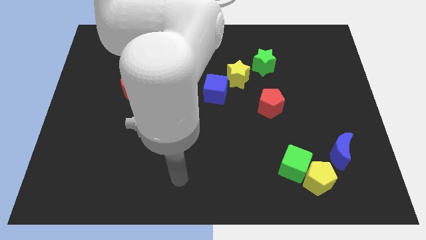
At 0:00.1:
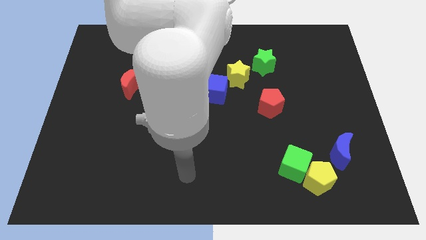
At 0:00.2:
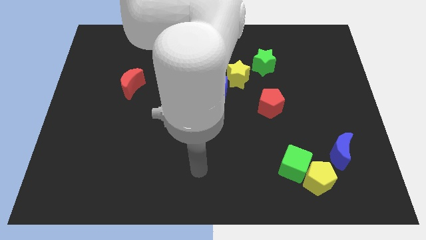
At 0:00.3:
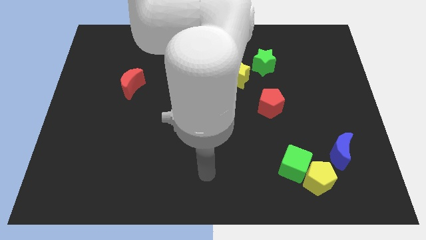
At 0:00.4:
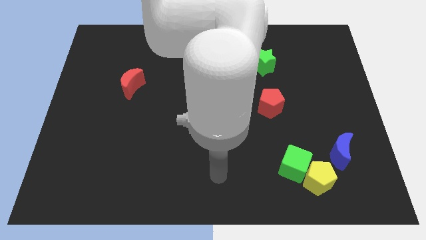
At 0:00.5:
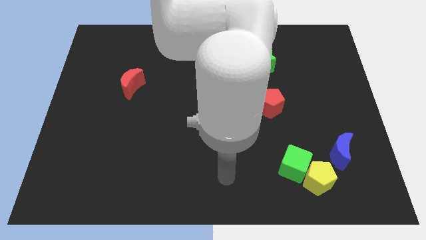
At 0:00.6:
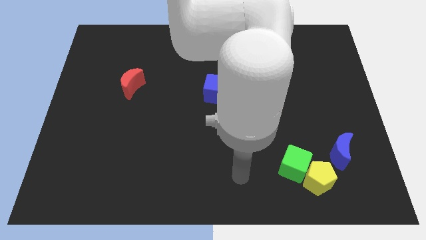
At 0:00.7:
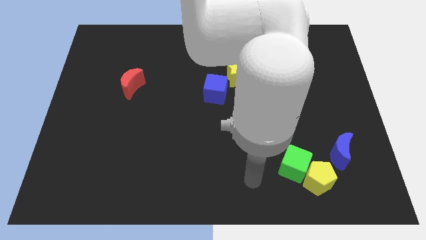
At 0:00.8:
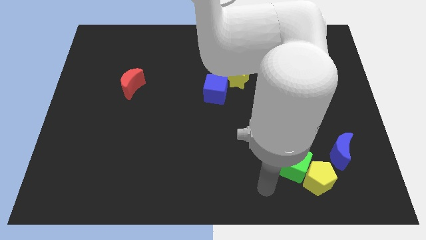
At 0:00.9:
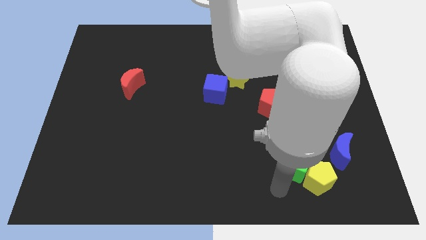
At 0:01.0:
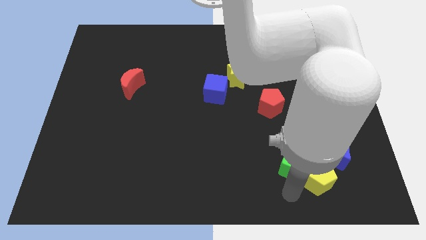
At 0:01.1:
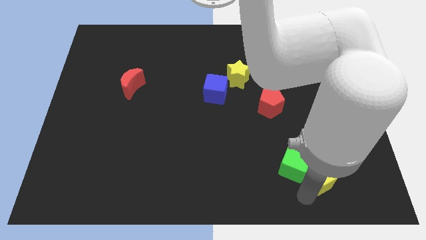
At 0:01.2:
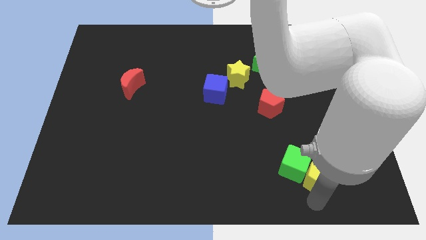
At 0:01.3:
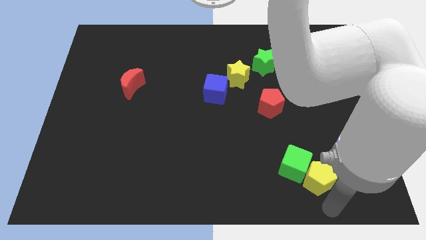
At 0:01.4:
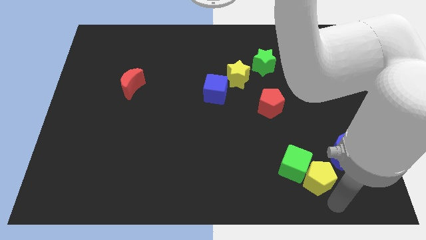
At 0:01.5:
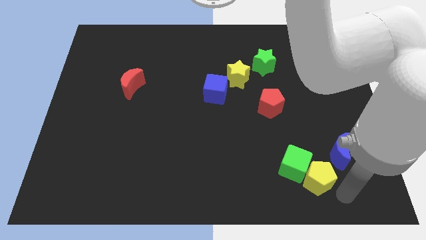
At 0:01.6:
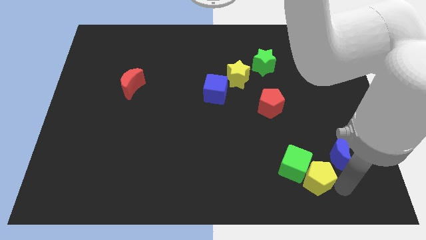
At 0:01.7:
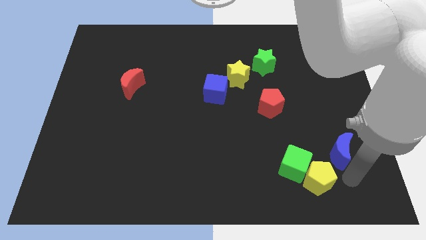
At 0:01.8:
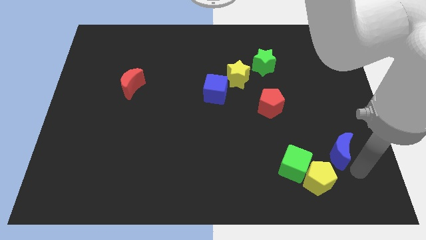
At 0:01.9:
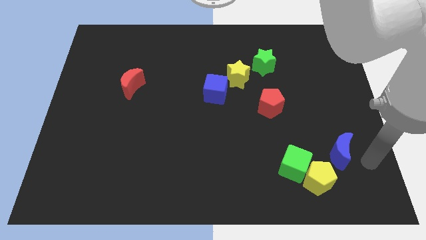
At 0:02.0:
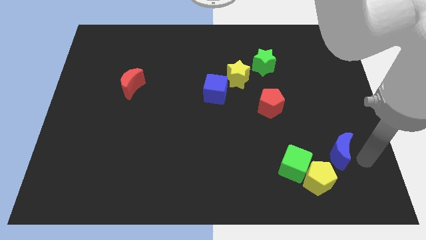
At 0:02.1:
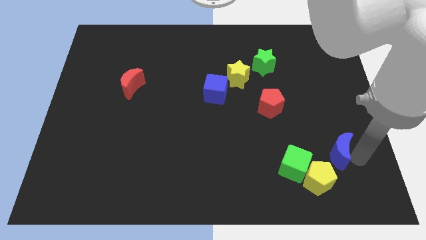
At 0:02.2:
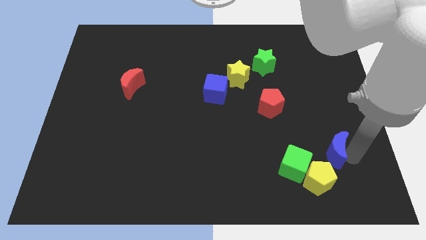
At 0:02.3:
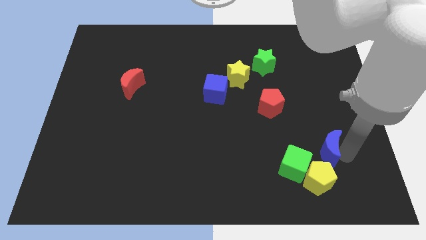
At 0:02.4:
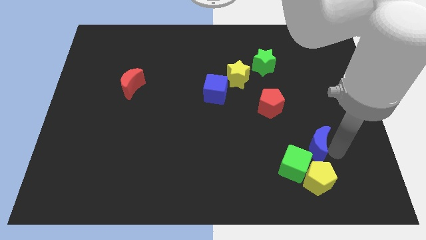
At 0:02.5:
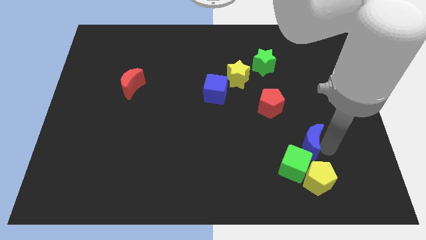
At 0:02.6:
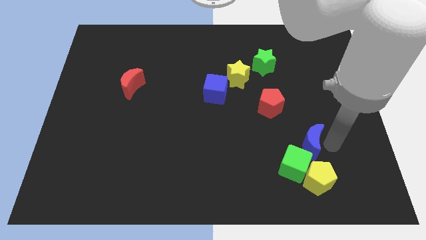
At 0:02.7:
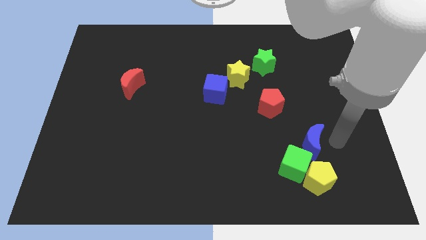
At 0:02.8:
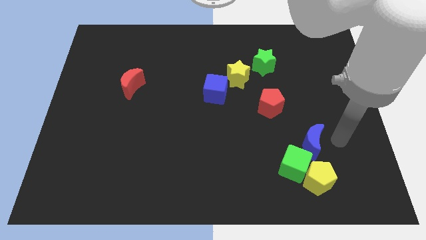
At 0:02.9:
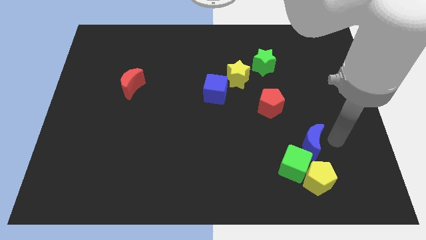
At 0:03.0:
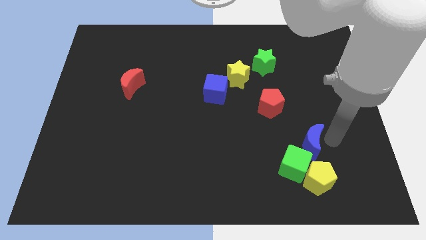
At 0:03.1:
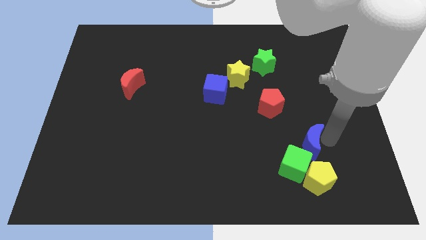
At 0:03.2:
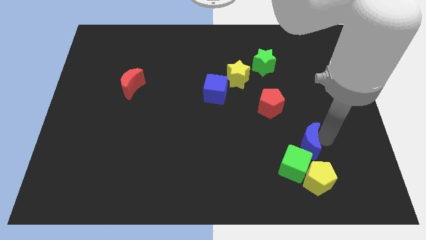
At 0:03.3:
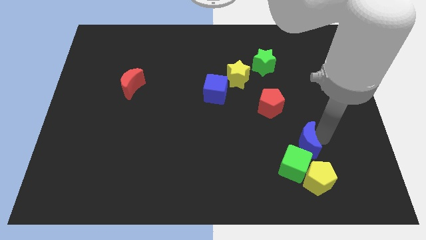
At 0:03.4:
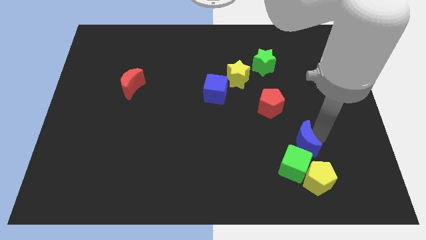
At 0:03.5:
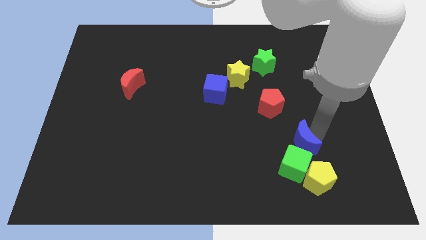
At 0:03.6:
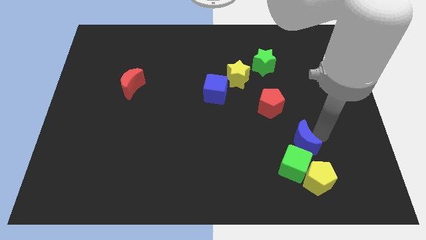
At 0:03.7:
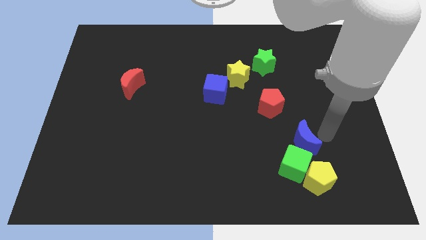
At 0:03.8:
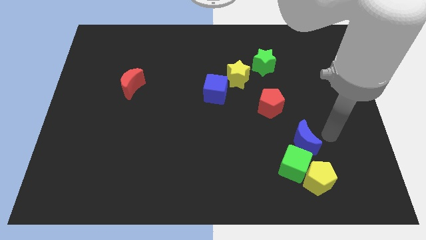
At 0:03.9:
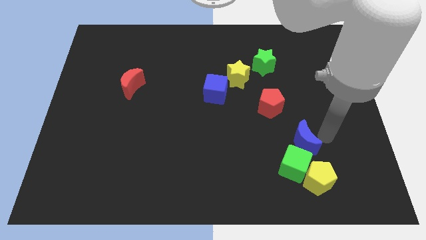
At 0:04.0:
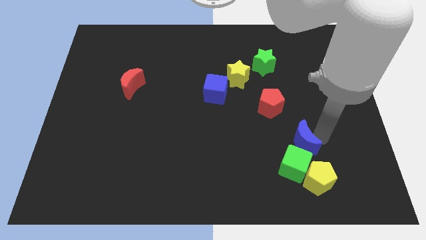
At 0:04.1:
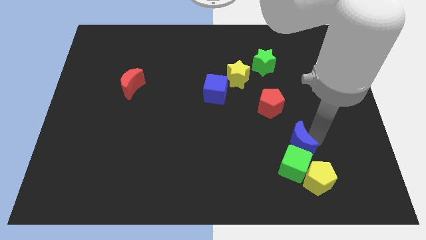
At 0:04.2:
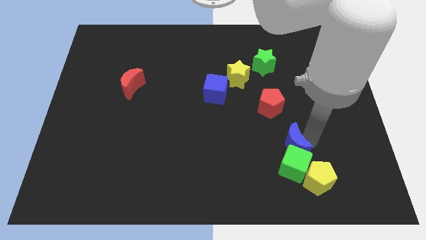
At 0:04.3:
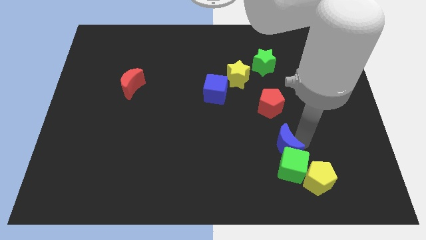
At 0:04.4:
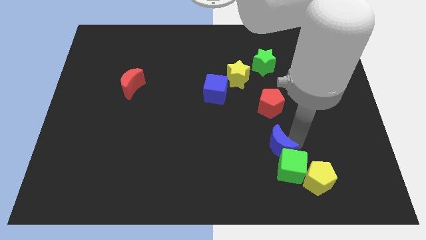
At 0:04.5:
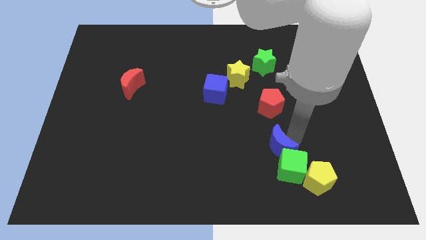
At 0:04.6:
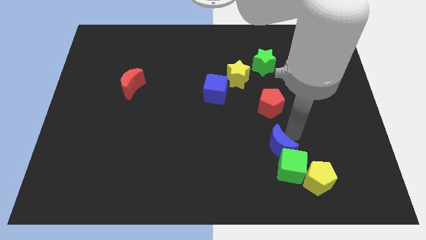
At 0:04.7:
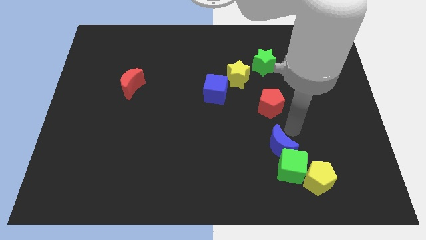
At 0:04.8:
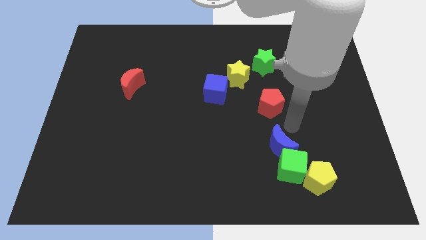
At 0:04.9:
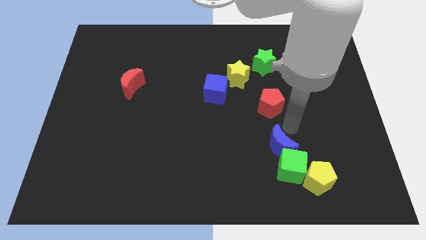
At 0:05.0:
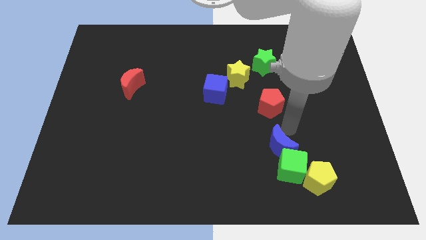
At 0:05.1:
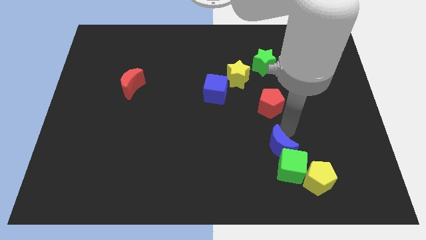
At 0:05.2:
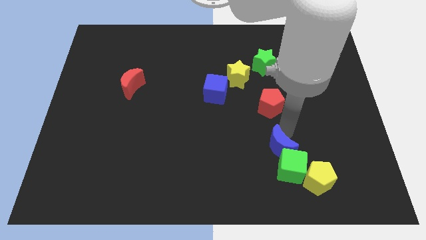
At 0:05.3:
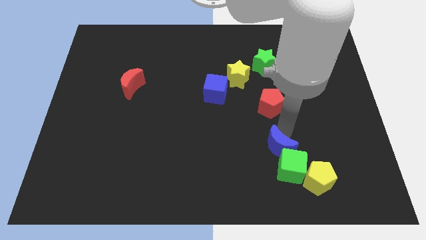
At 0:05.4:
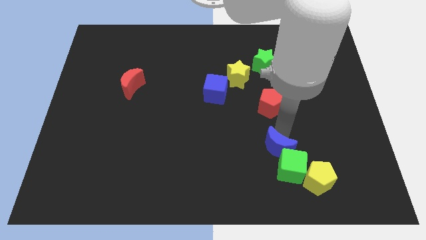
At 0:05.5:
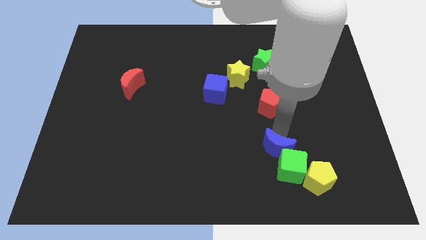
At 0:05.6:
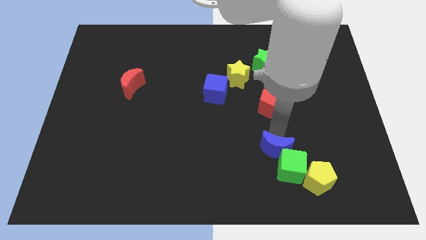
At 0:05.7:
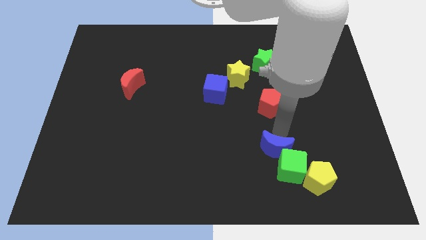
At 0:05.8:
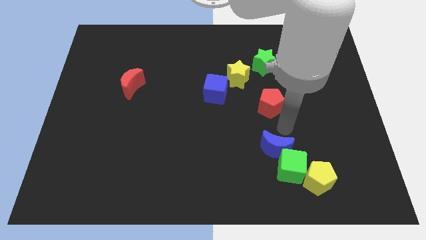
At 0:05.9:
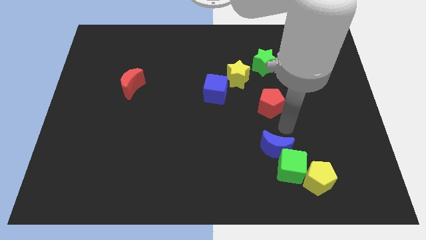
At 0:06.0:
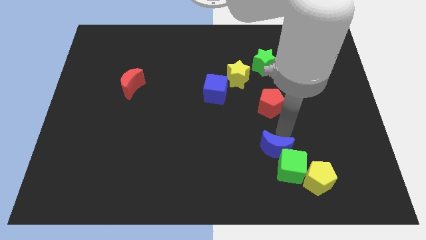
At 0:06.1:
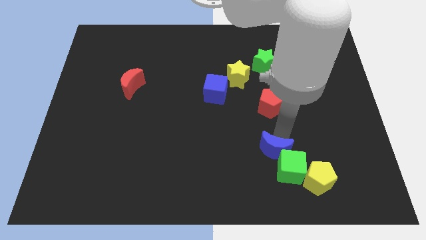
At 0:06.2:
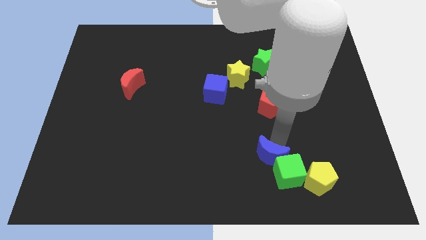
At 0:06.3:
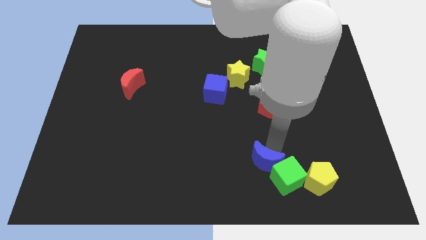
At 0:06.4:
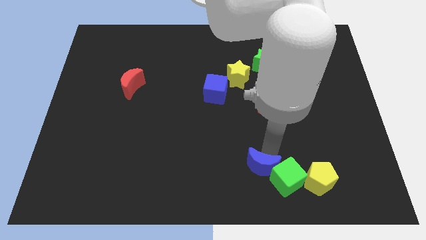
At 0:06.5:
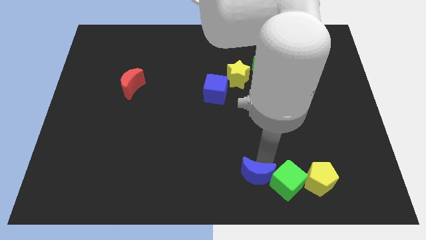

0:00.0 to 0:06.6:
slide the blue moon to the bottom side

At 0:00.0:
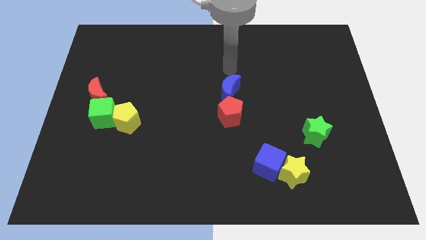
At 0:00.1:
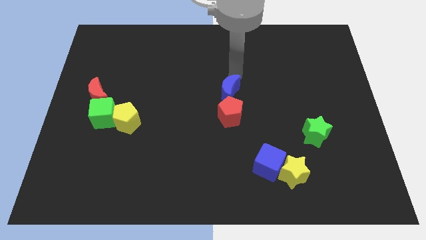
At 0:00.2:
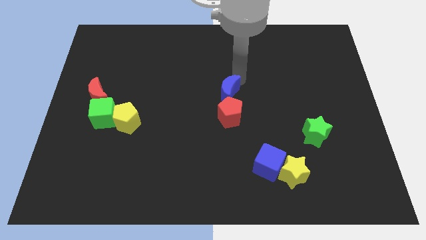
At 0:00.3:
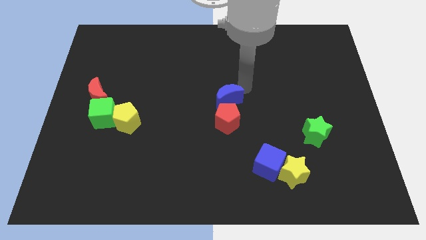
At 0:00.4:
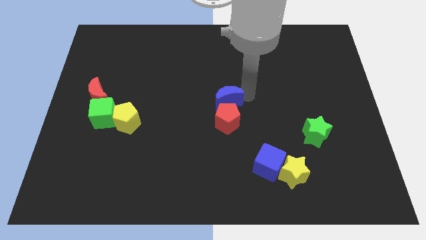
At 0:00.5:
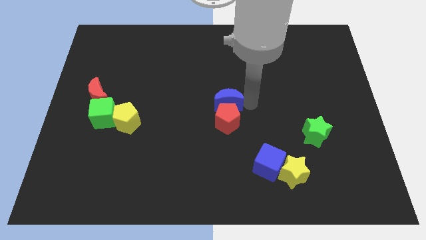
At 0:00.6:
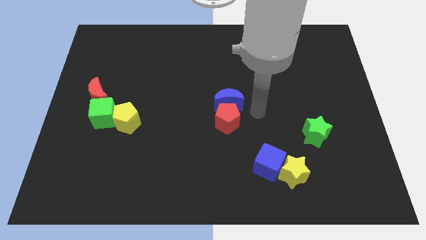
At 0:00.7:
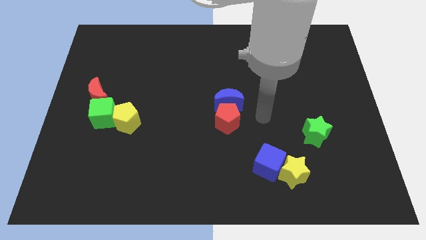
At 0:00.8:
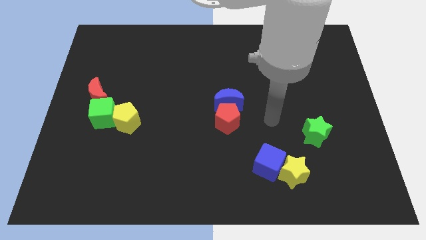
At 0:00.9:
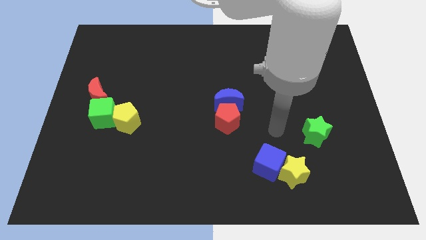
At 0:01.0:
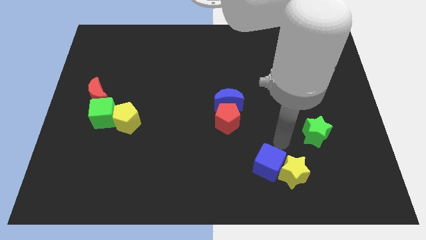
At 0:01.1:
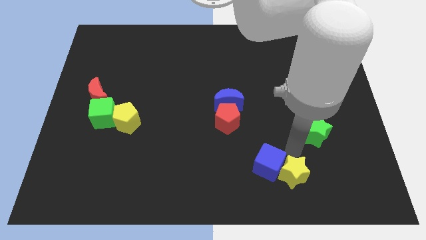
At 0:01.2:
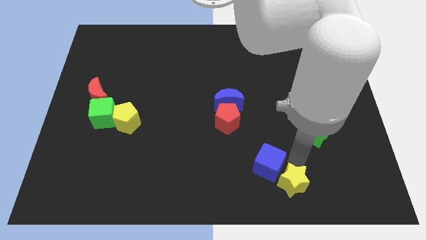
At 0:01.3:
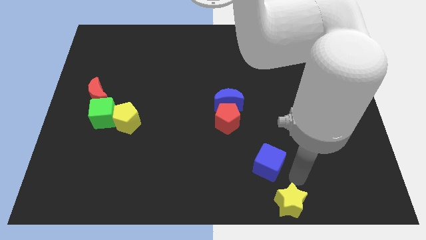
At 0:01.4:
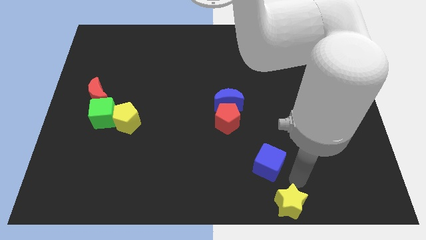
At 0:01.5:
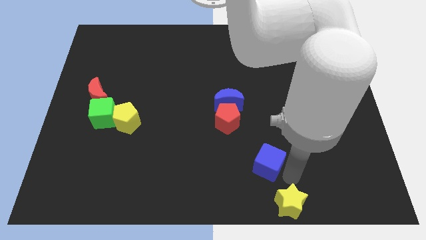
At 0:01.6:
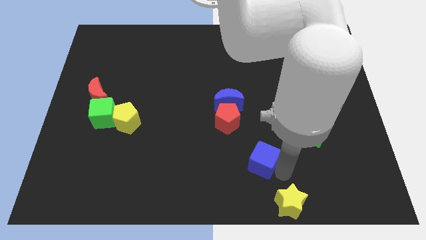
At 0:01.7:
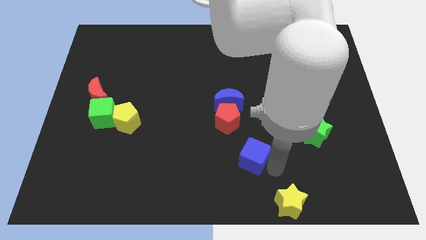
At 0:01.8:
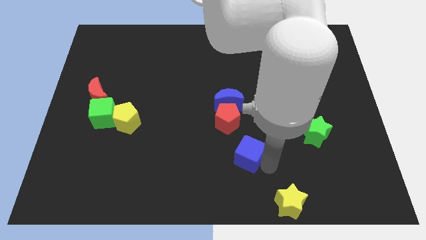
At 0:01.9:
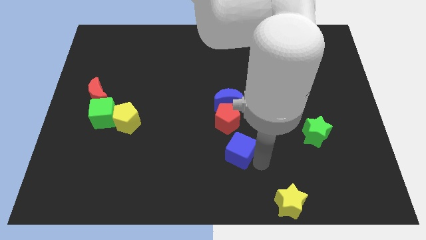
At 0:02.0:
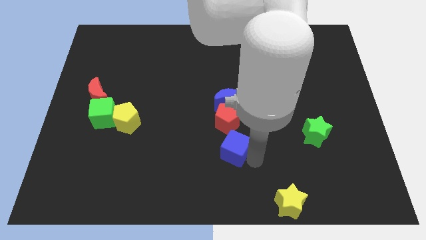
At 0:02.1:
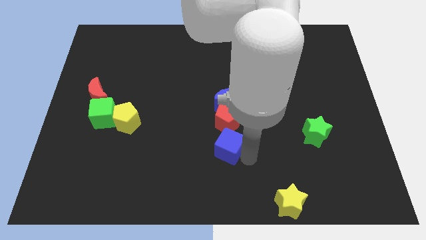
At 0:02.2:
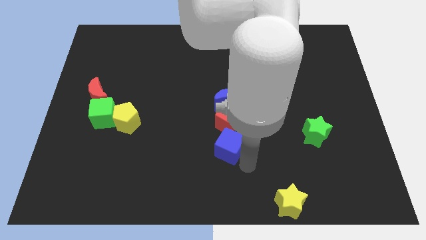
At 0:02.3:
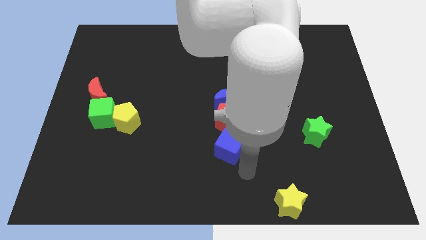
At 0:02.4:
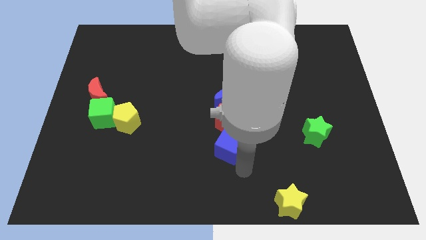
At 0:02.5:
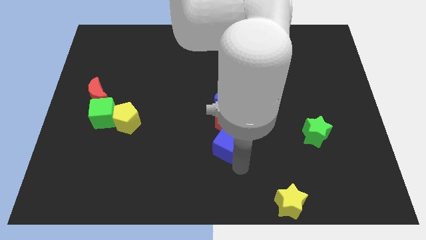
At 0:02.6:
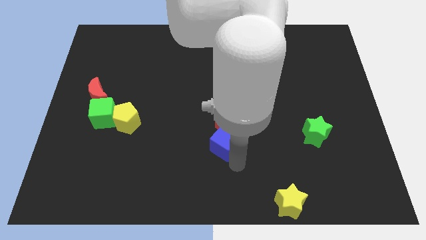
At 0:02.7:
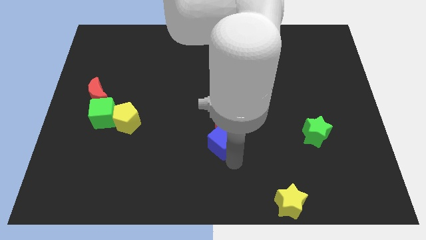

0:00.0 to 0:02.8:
move the blue cube to the center of the board
